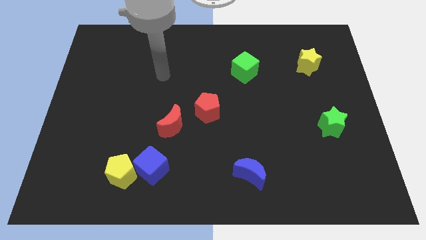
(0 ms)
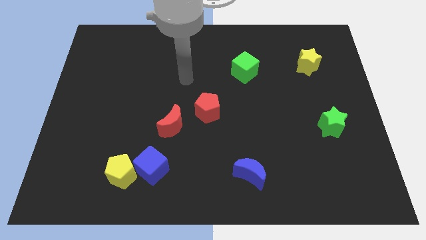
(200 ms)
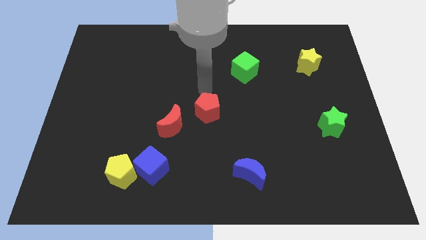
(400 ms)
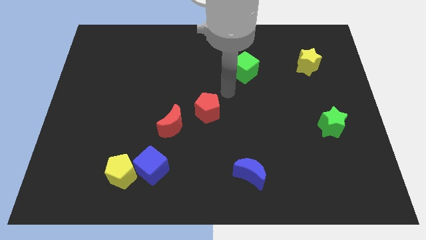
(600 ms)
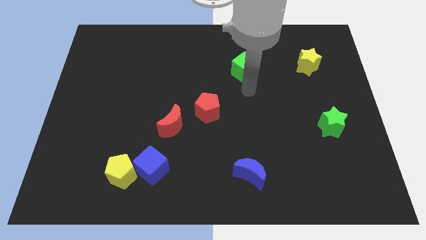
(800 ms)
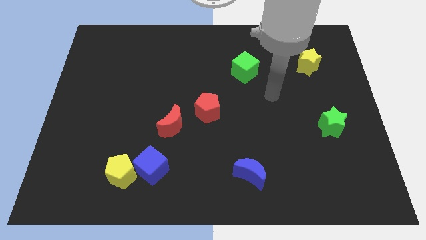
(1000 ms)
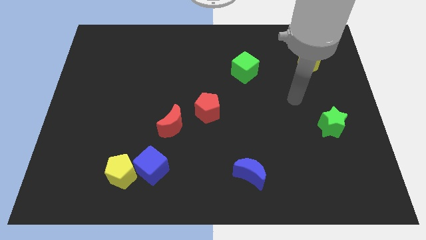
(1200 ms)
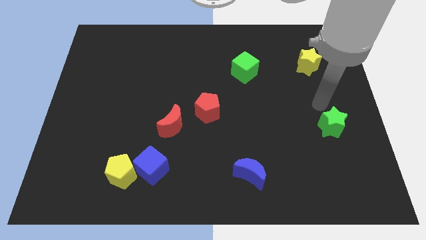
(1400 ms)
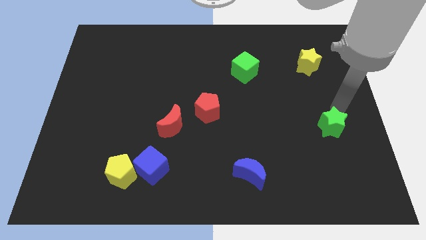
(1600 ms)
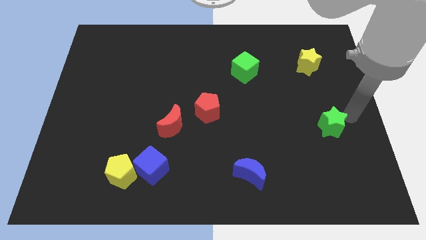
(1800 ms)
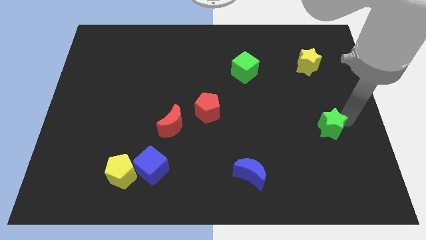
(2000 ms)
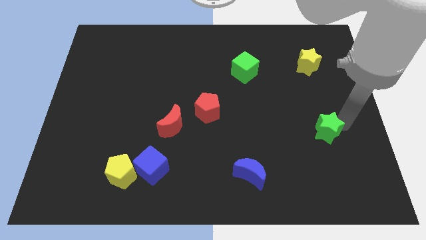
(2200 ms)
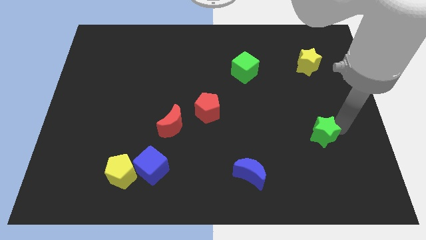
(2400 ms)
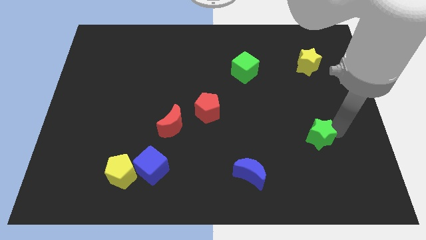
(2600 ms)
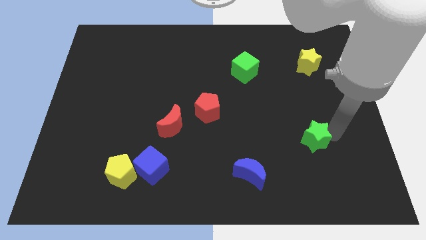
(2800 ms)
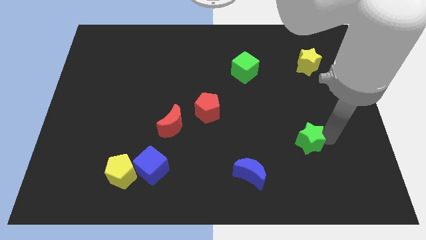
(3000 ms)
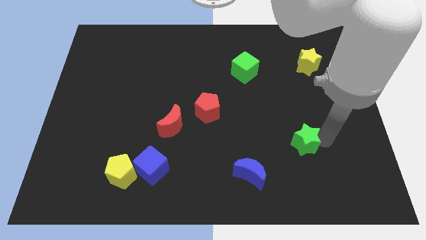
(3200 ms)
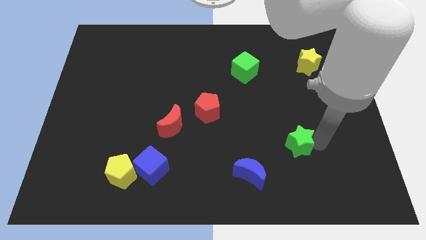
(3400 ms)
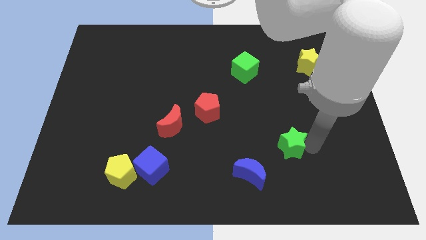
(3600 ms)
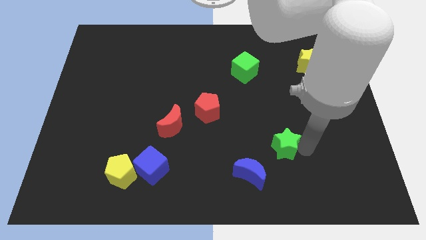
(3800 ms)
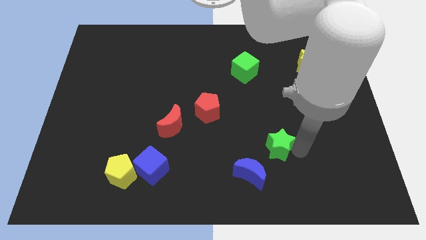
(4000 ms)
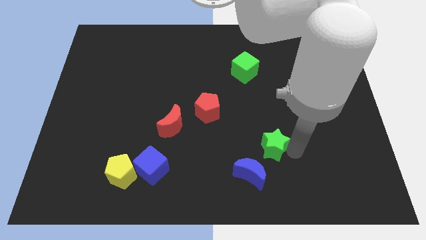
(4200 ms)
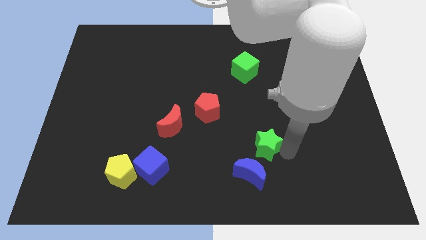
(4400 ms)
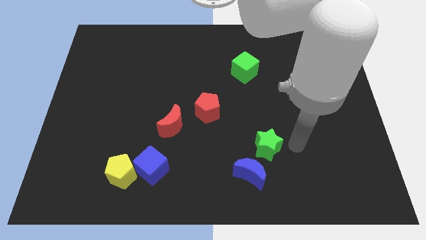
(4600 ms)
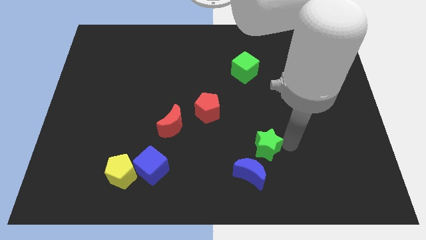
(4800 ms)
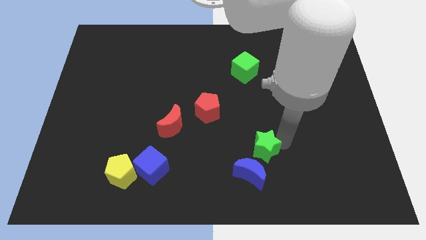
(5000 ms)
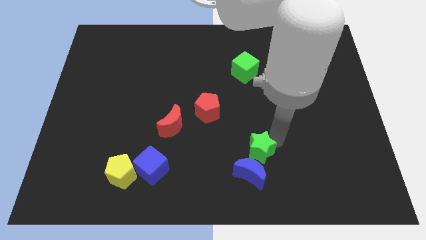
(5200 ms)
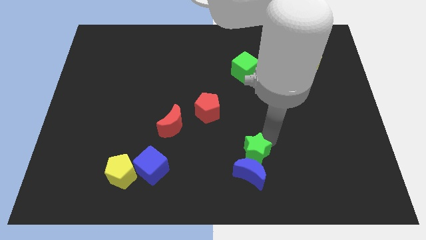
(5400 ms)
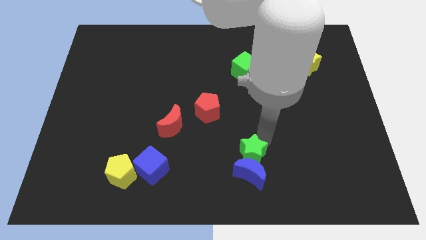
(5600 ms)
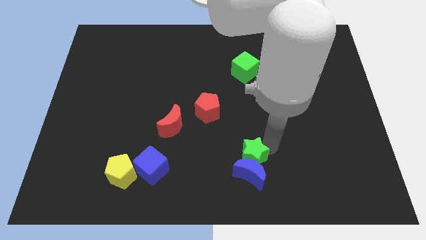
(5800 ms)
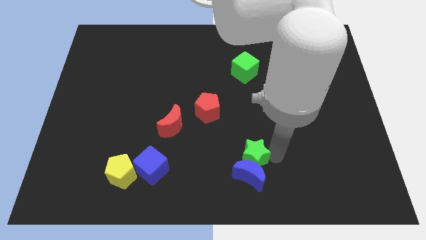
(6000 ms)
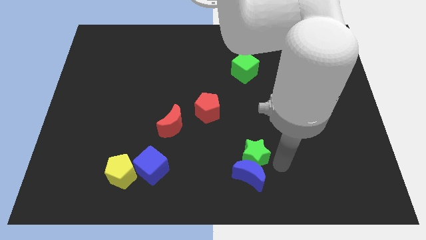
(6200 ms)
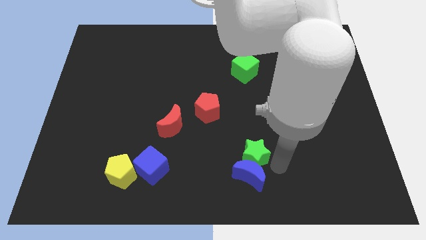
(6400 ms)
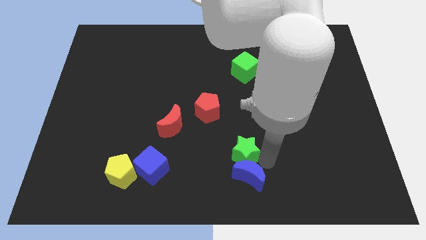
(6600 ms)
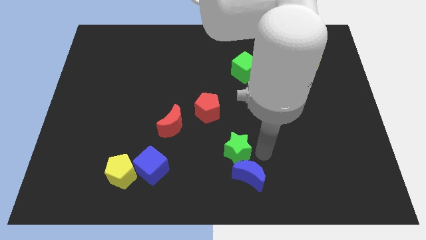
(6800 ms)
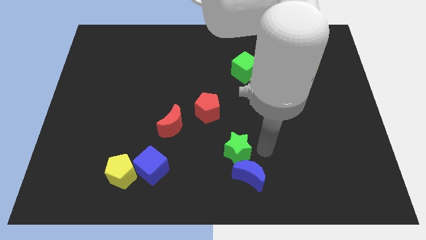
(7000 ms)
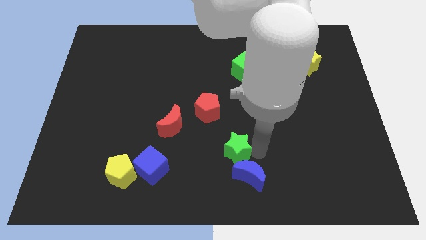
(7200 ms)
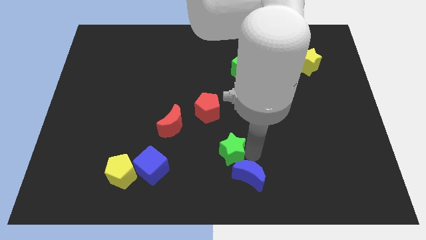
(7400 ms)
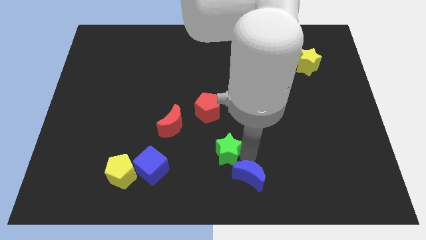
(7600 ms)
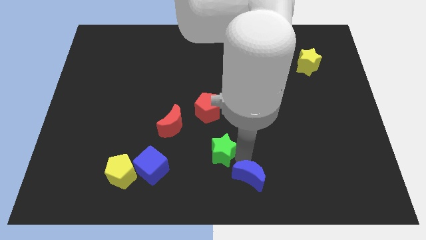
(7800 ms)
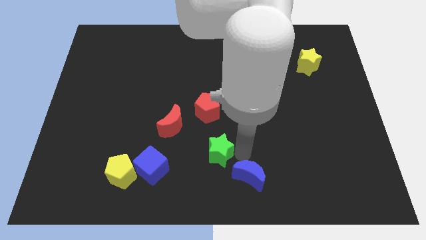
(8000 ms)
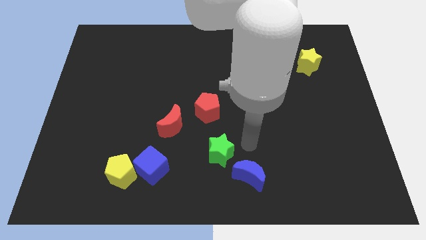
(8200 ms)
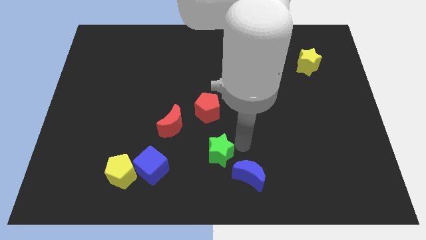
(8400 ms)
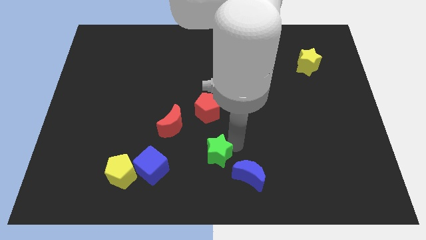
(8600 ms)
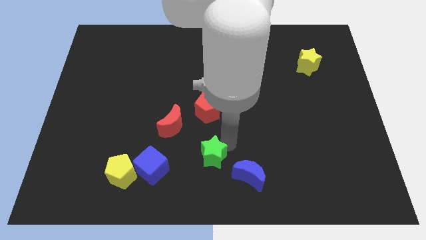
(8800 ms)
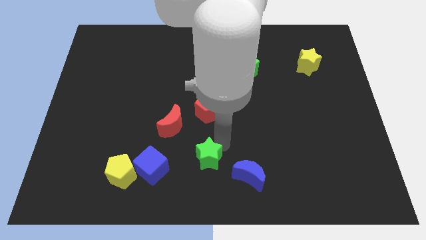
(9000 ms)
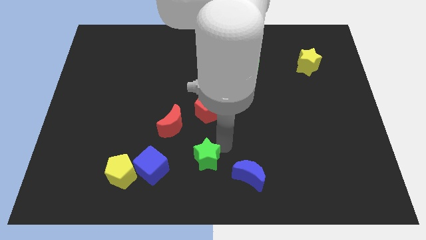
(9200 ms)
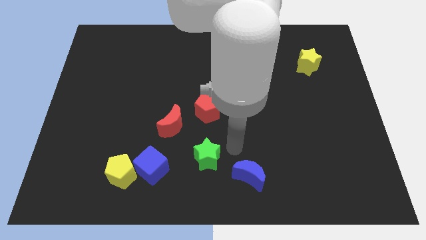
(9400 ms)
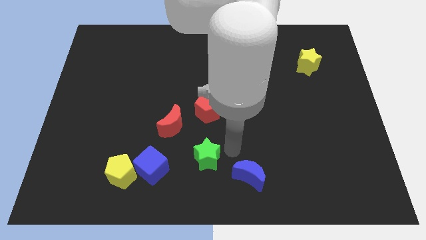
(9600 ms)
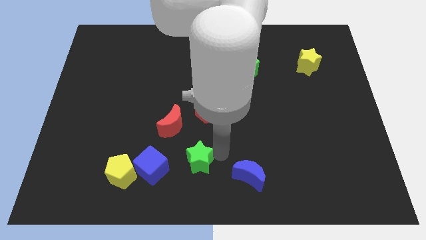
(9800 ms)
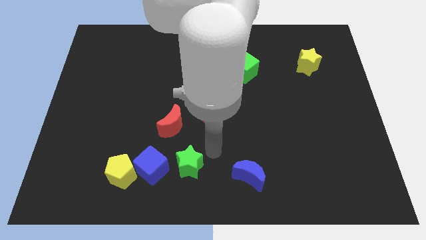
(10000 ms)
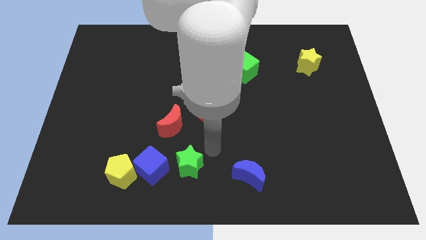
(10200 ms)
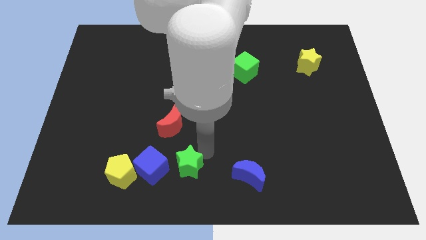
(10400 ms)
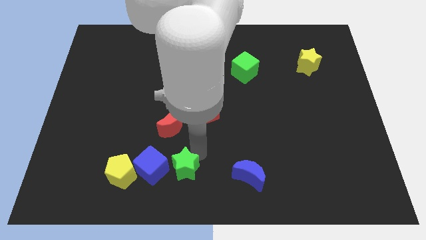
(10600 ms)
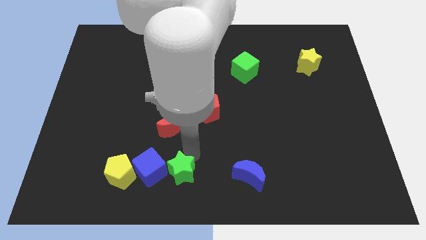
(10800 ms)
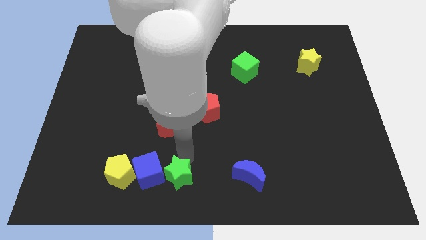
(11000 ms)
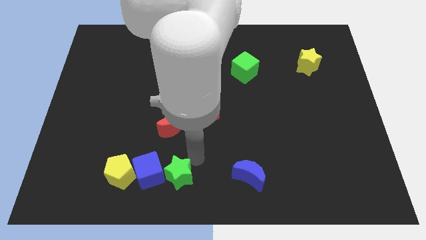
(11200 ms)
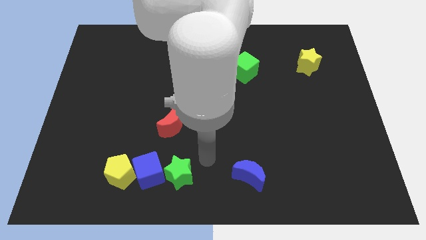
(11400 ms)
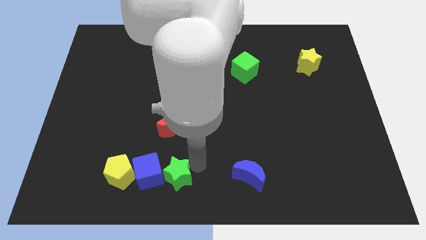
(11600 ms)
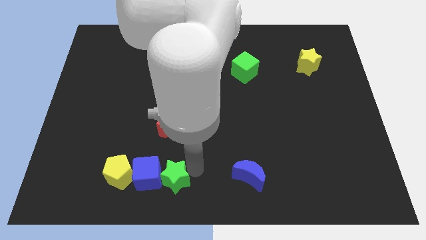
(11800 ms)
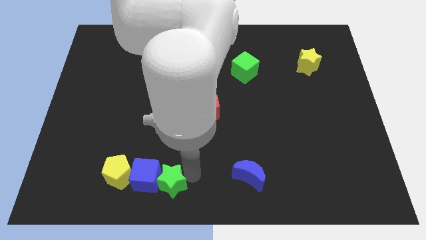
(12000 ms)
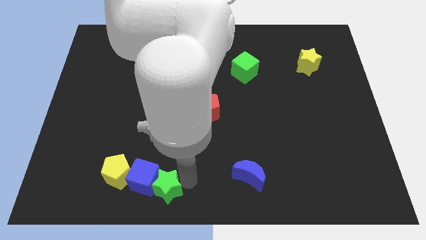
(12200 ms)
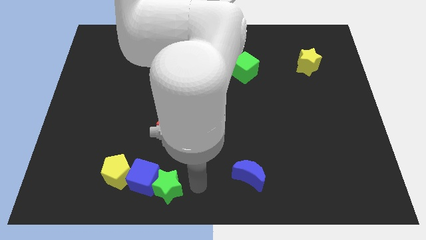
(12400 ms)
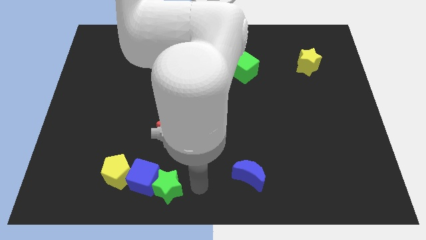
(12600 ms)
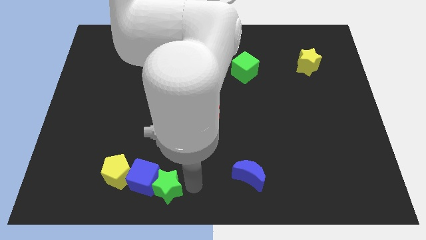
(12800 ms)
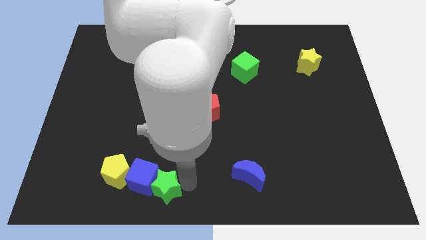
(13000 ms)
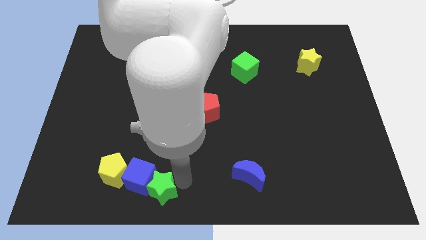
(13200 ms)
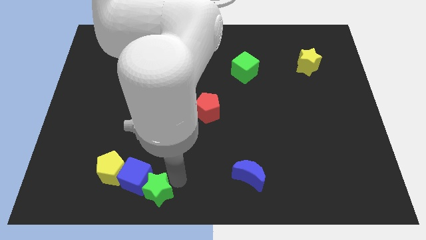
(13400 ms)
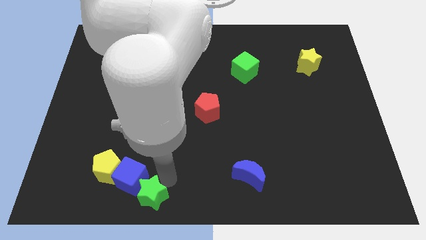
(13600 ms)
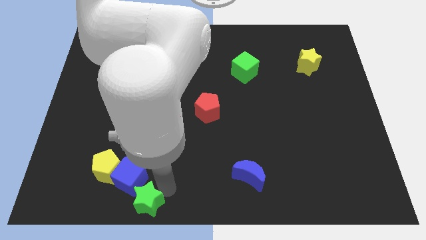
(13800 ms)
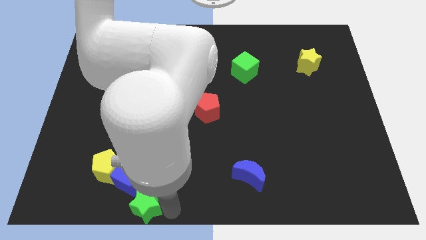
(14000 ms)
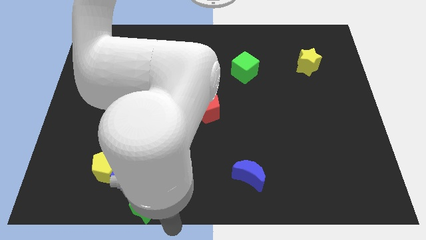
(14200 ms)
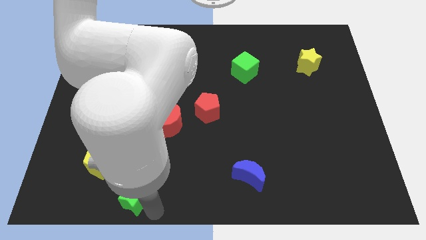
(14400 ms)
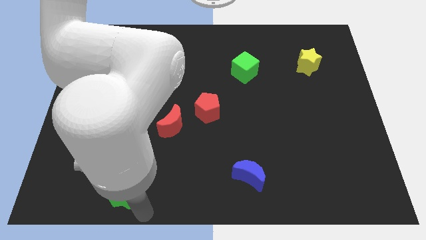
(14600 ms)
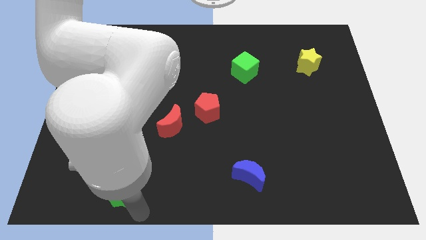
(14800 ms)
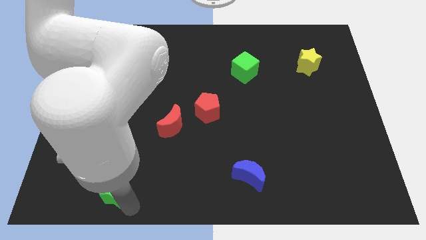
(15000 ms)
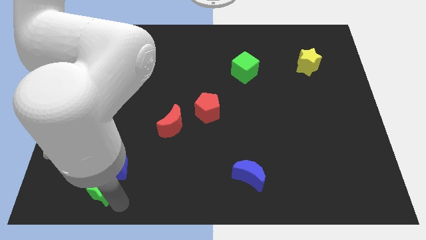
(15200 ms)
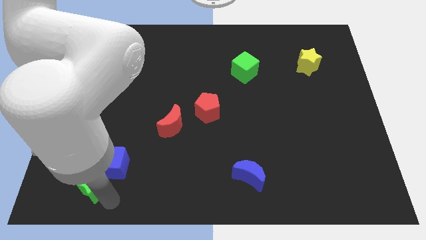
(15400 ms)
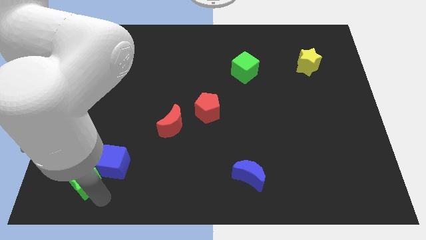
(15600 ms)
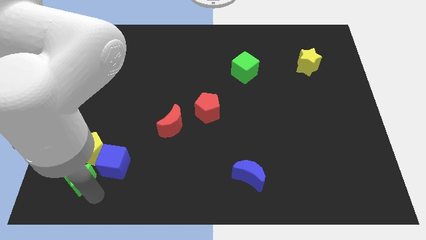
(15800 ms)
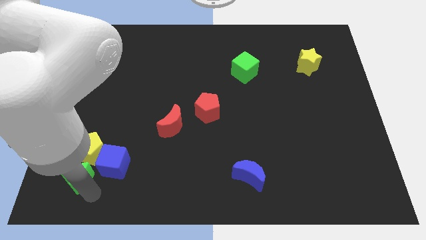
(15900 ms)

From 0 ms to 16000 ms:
push the green star next to the yellow pentagon

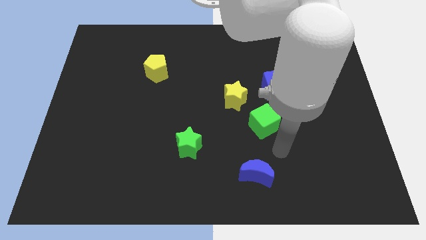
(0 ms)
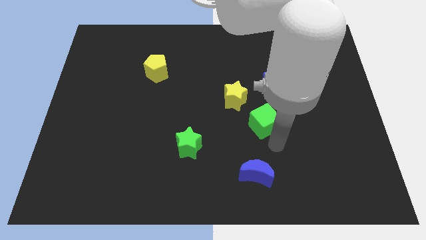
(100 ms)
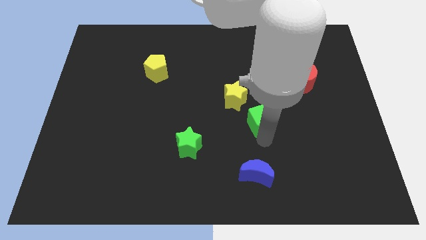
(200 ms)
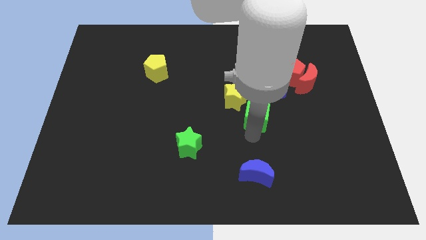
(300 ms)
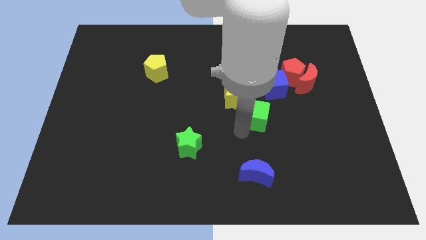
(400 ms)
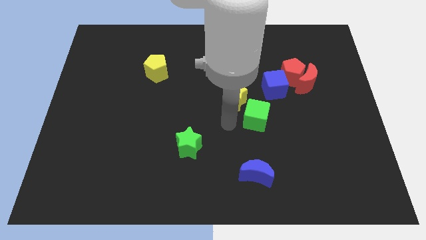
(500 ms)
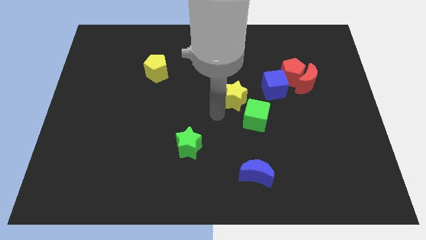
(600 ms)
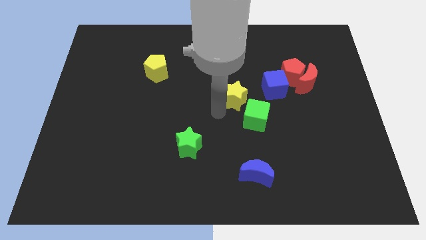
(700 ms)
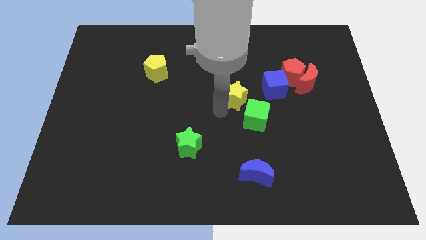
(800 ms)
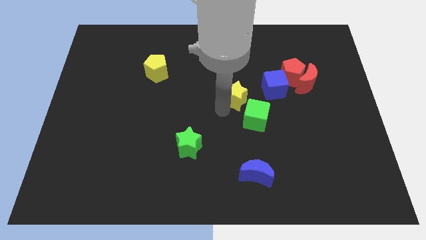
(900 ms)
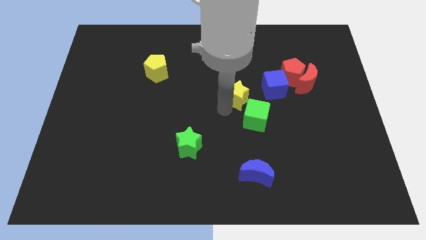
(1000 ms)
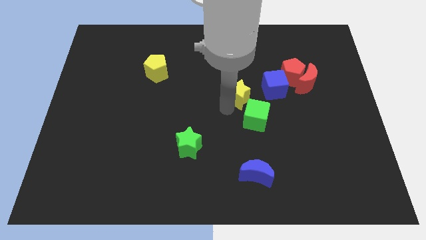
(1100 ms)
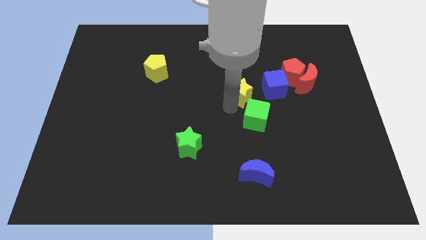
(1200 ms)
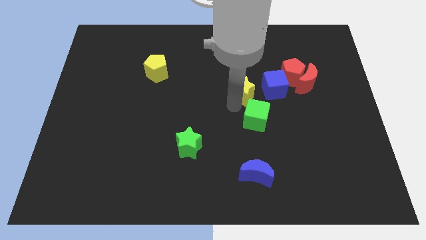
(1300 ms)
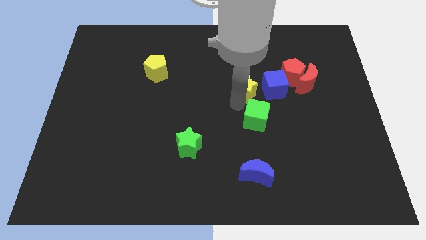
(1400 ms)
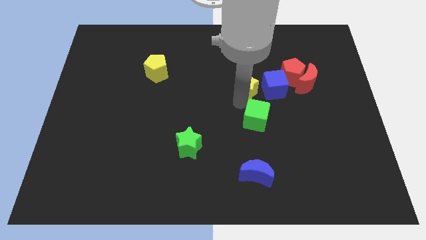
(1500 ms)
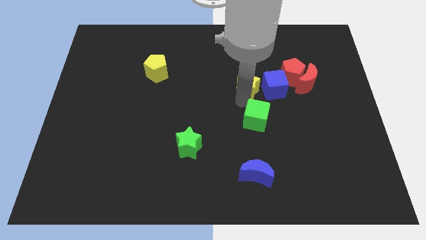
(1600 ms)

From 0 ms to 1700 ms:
put the yellow star next to the blue cube
